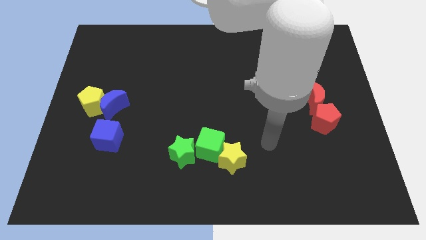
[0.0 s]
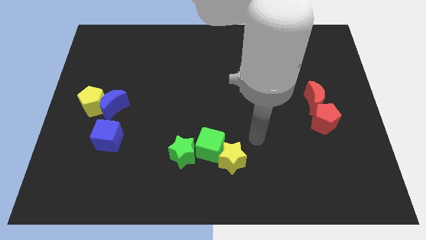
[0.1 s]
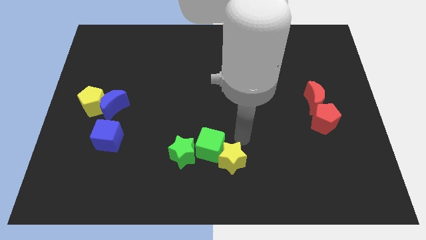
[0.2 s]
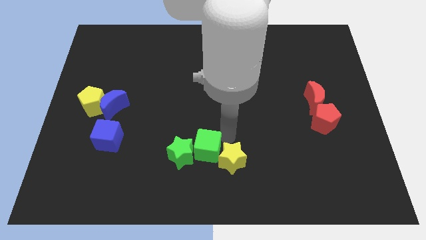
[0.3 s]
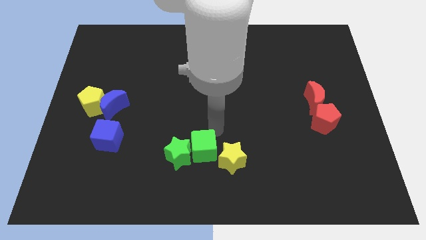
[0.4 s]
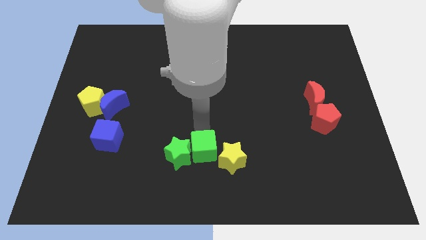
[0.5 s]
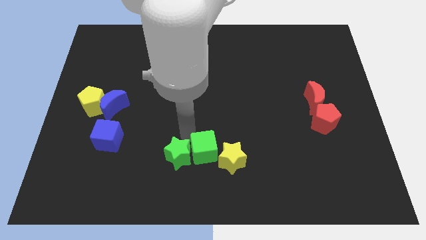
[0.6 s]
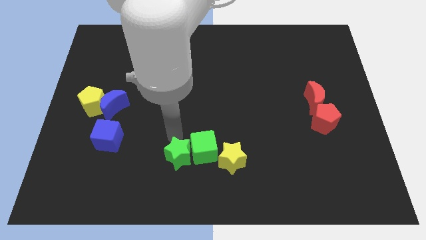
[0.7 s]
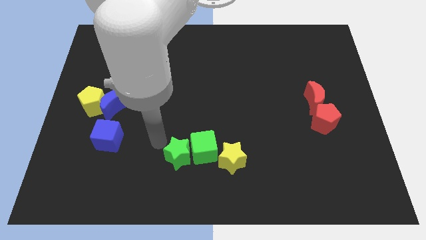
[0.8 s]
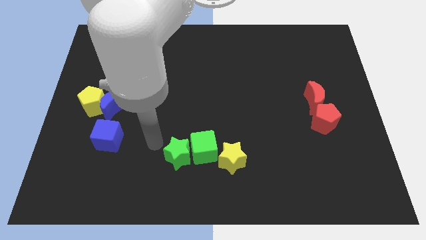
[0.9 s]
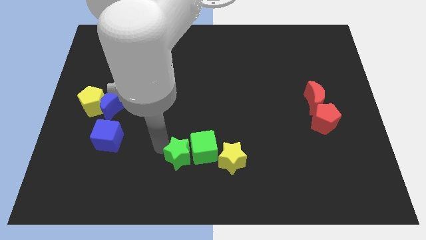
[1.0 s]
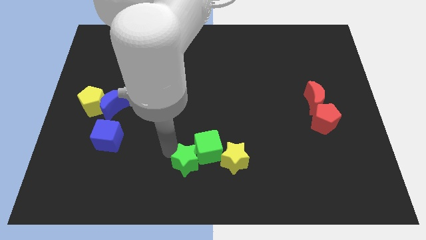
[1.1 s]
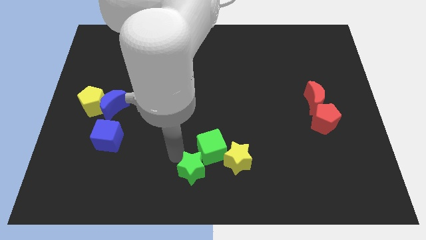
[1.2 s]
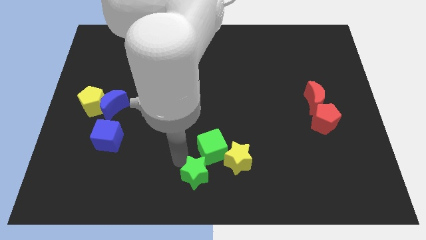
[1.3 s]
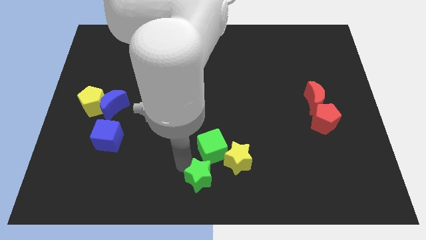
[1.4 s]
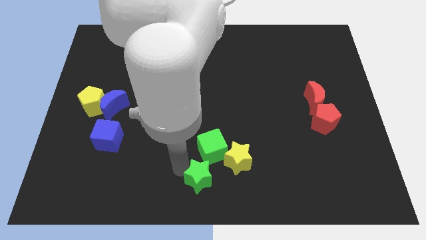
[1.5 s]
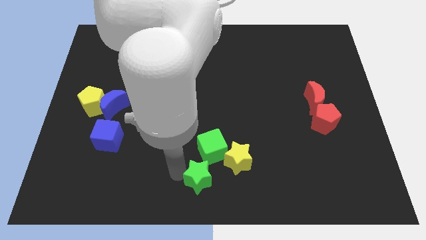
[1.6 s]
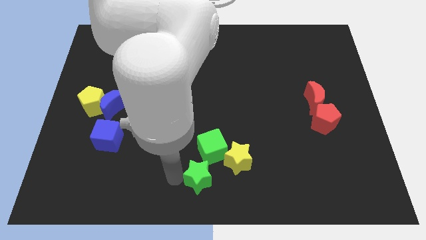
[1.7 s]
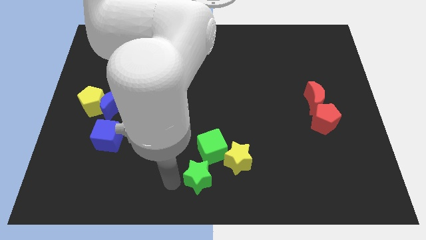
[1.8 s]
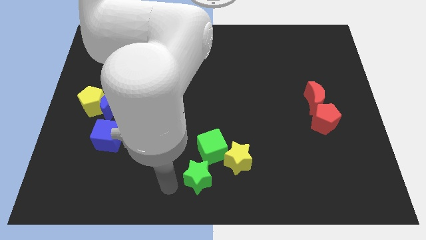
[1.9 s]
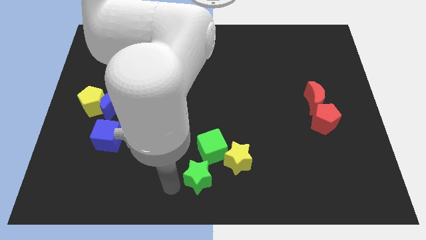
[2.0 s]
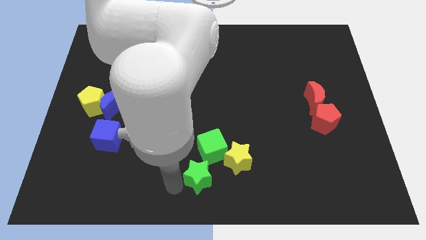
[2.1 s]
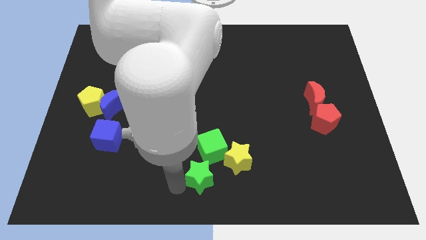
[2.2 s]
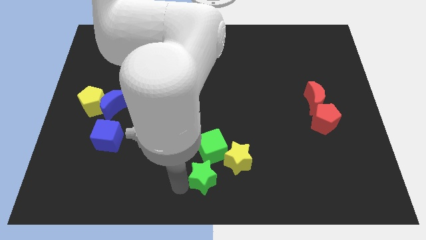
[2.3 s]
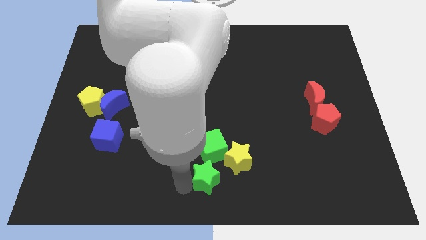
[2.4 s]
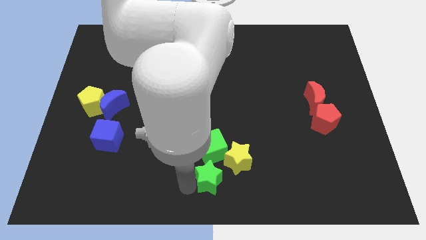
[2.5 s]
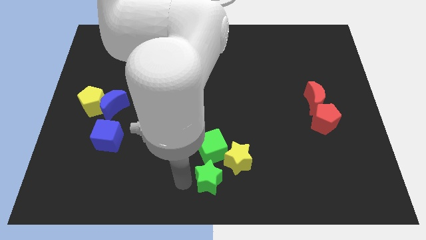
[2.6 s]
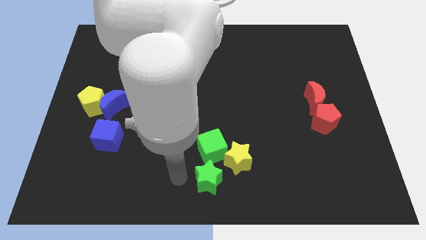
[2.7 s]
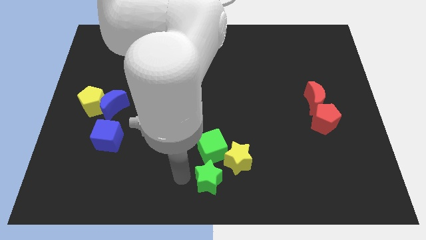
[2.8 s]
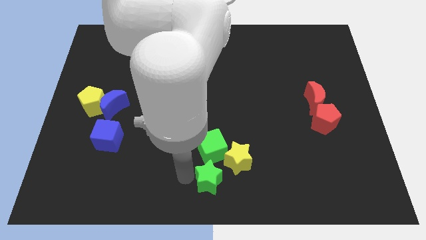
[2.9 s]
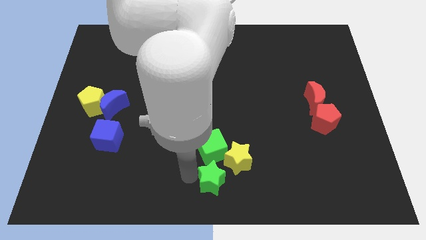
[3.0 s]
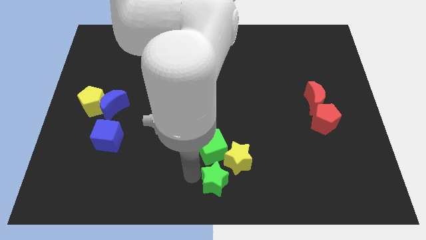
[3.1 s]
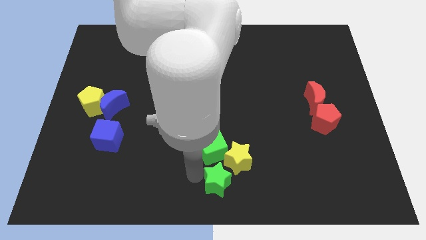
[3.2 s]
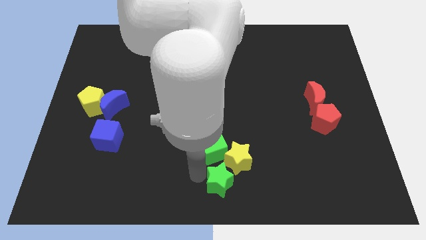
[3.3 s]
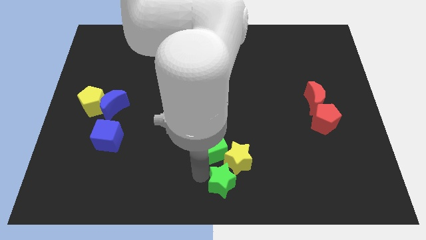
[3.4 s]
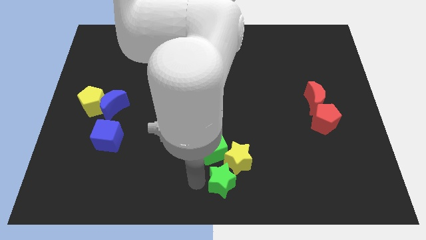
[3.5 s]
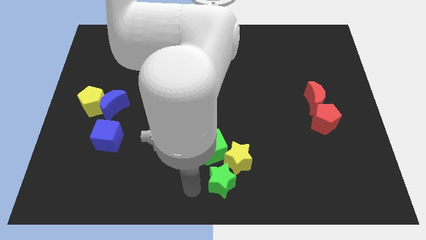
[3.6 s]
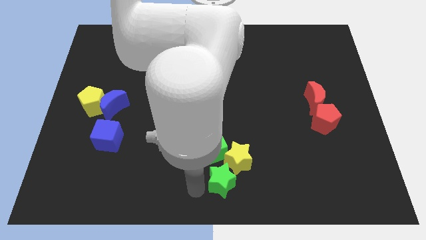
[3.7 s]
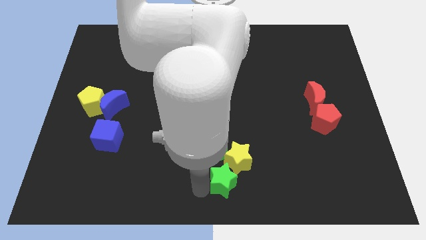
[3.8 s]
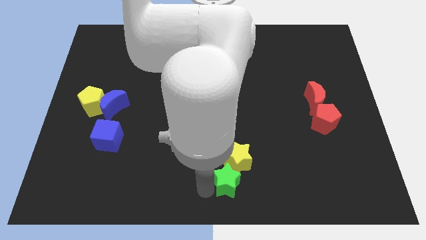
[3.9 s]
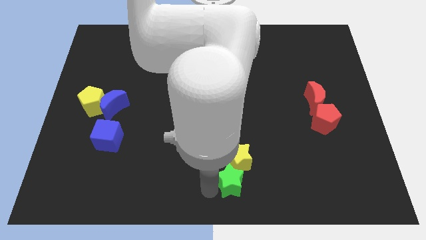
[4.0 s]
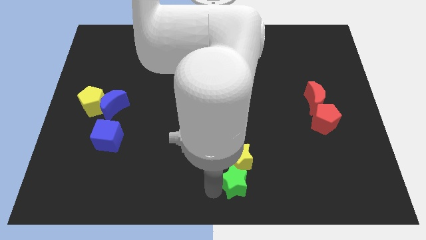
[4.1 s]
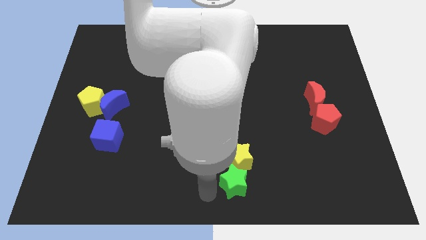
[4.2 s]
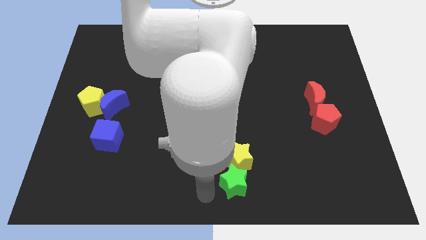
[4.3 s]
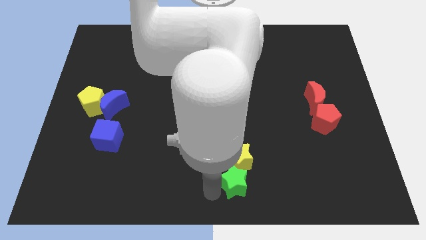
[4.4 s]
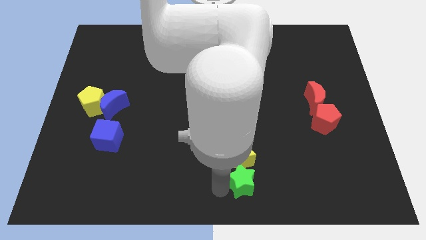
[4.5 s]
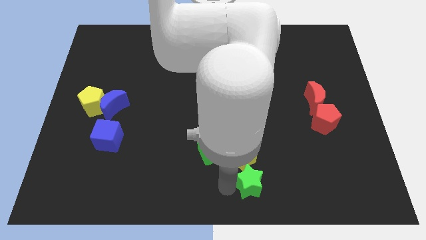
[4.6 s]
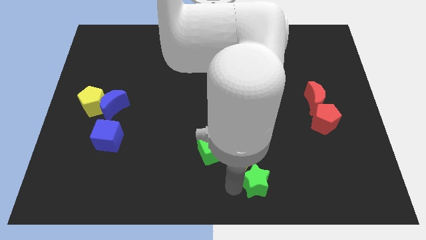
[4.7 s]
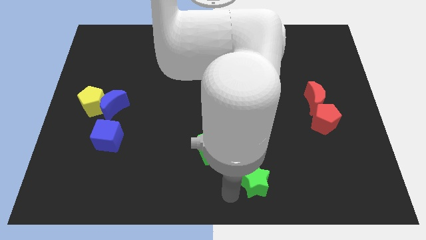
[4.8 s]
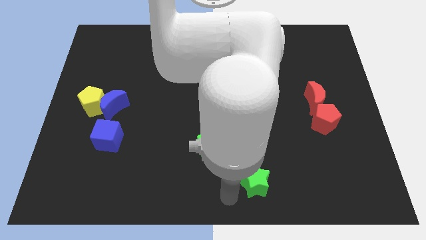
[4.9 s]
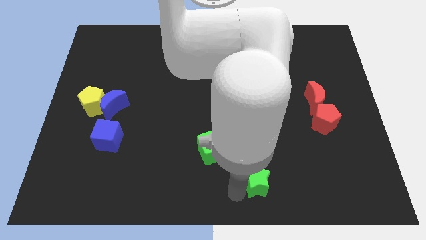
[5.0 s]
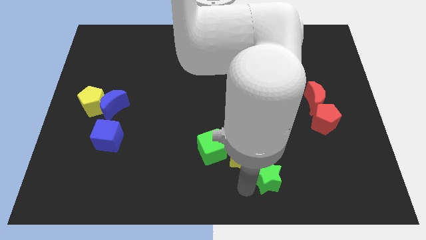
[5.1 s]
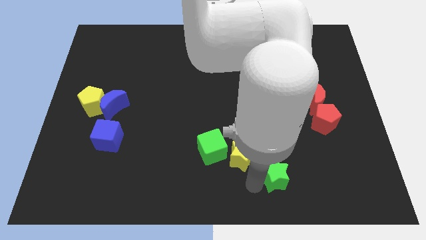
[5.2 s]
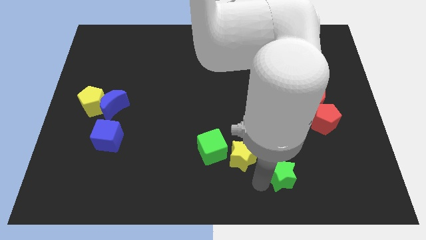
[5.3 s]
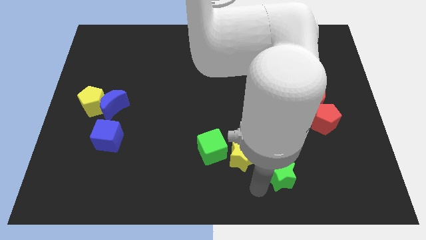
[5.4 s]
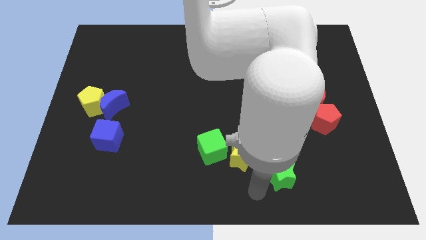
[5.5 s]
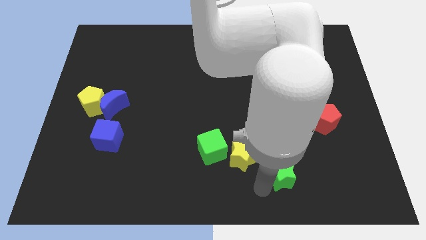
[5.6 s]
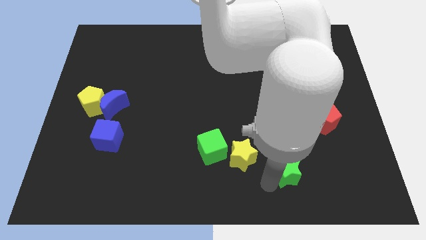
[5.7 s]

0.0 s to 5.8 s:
move the green star right

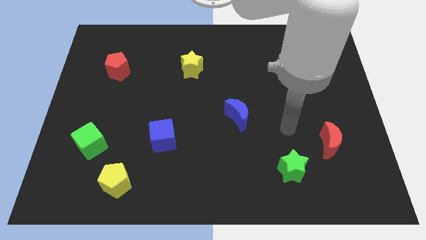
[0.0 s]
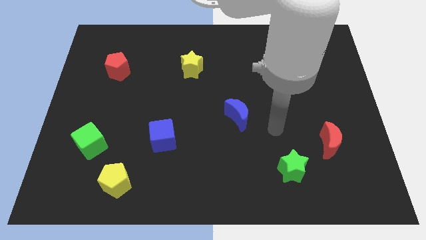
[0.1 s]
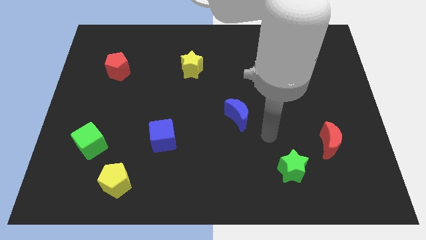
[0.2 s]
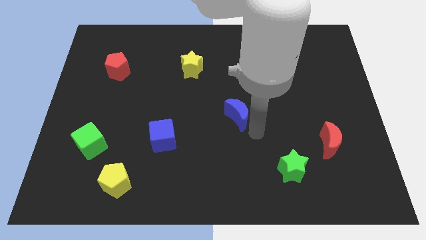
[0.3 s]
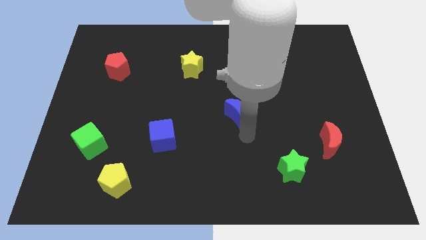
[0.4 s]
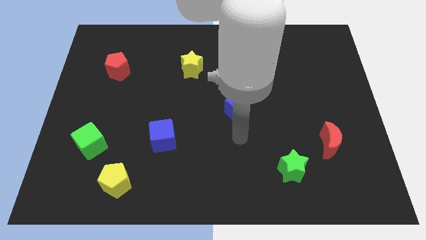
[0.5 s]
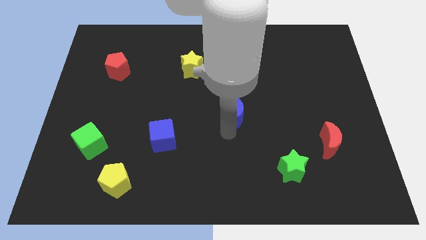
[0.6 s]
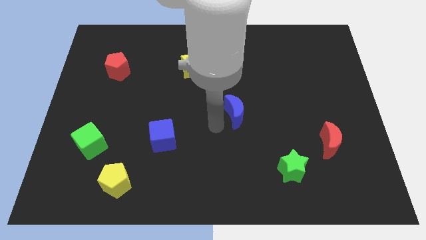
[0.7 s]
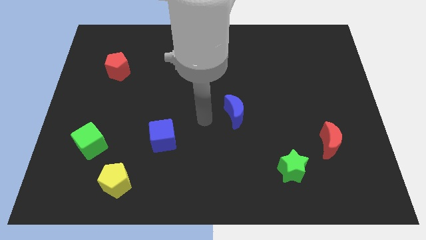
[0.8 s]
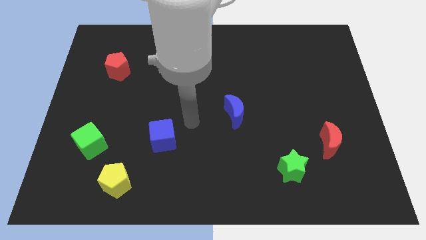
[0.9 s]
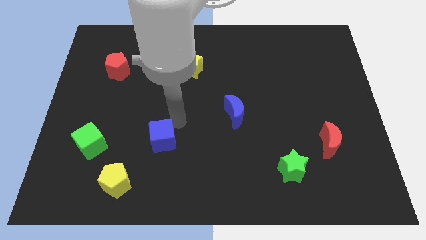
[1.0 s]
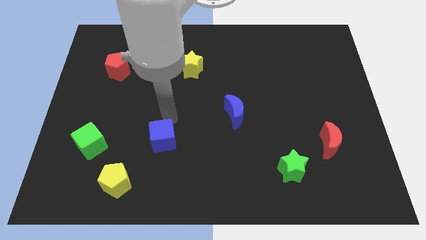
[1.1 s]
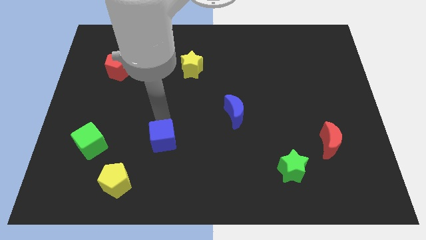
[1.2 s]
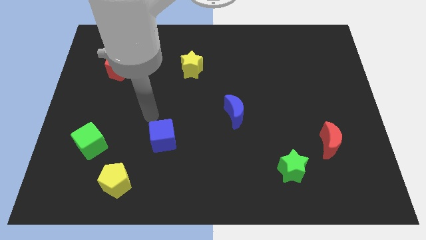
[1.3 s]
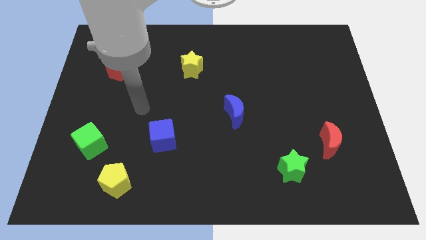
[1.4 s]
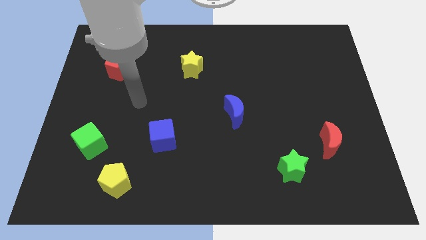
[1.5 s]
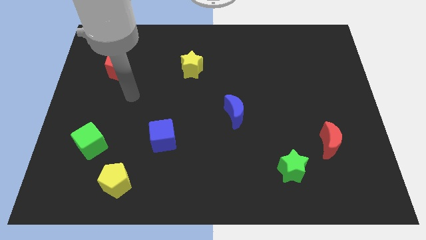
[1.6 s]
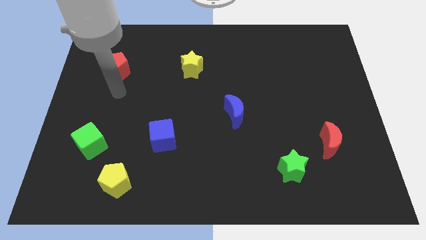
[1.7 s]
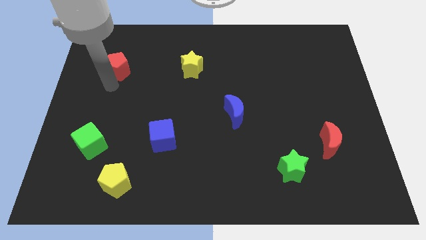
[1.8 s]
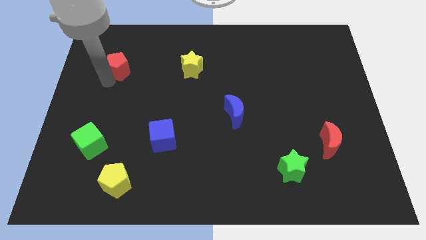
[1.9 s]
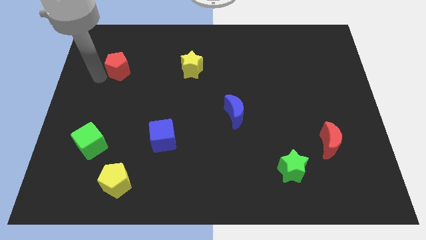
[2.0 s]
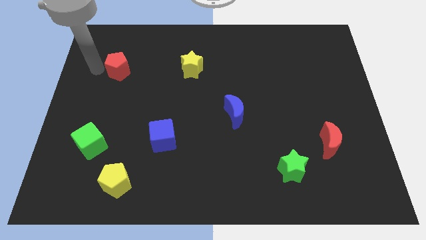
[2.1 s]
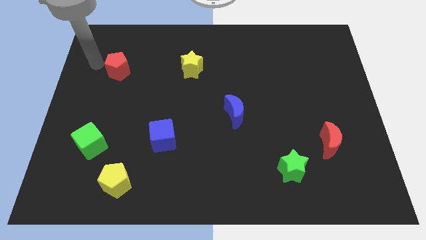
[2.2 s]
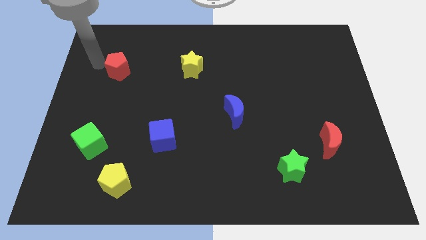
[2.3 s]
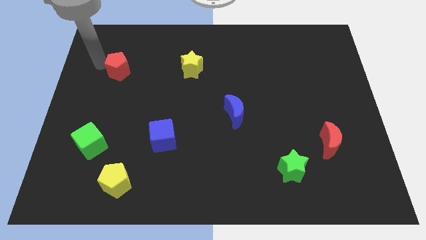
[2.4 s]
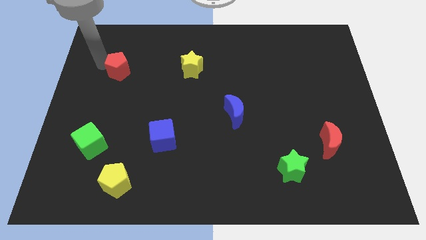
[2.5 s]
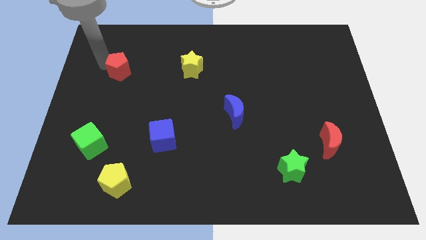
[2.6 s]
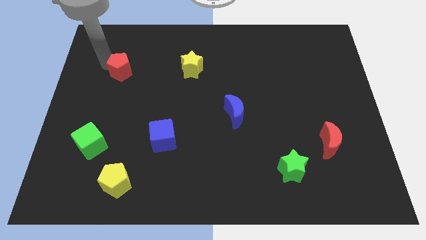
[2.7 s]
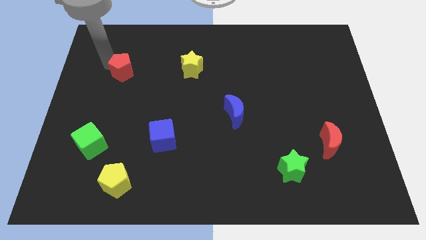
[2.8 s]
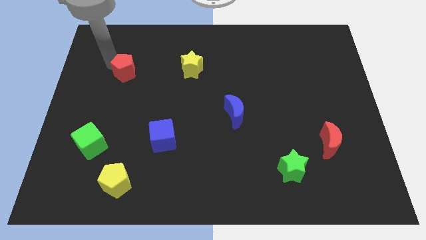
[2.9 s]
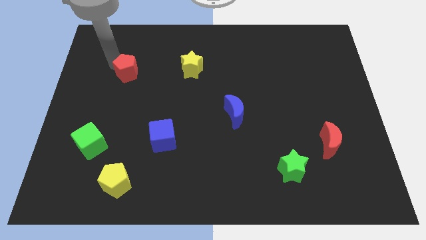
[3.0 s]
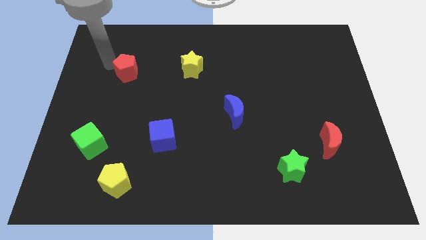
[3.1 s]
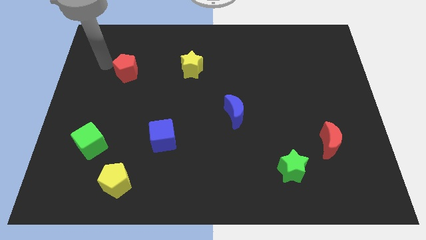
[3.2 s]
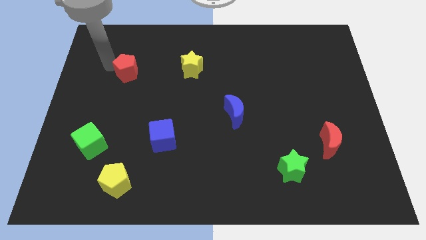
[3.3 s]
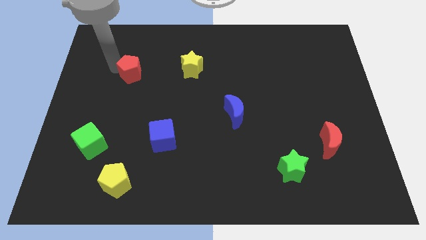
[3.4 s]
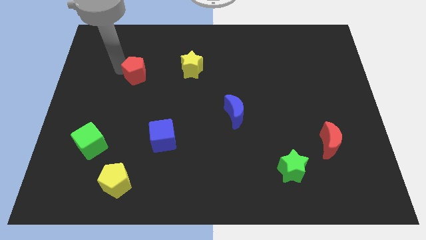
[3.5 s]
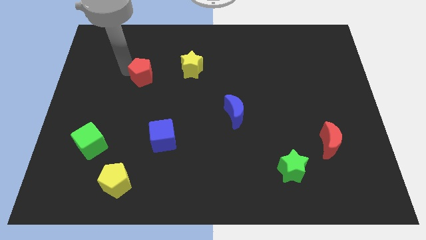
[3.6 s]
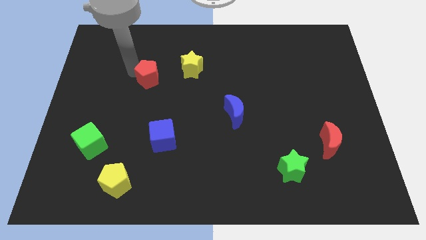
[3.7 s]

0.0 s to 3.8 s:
move the red pentagon downwards and then to the right slightly
